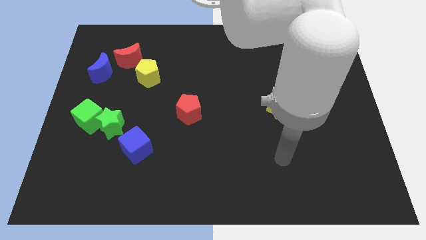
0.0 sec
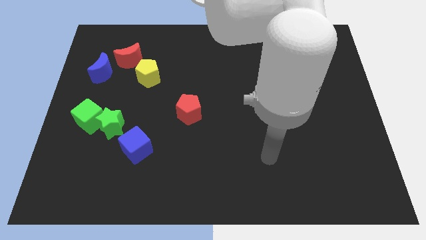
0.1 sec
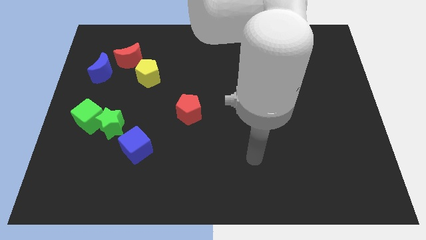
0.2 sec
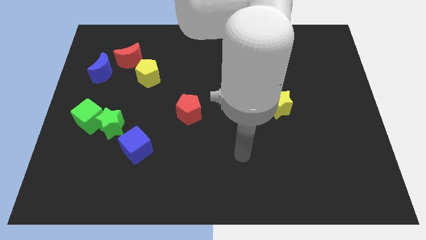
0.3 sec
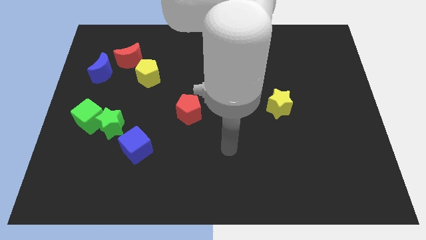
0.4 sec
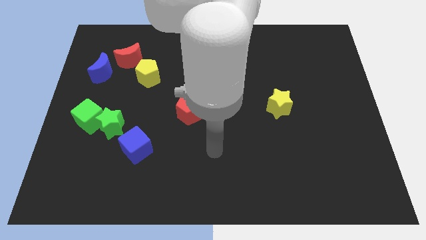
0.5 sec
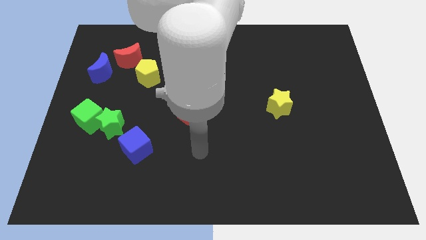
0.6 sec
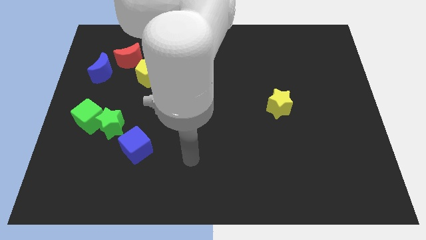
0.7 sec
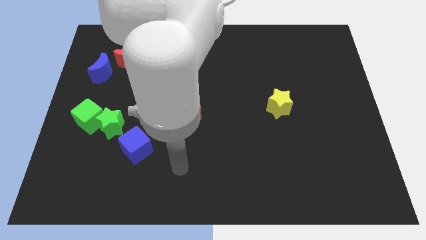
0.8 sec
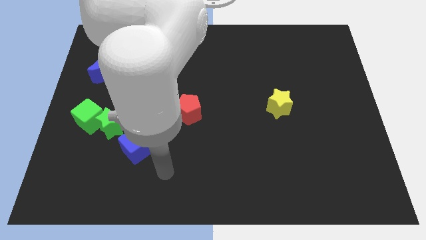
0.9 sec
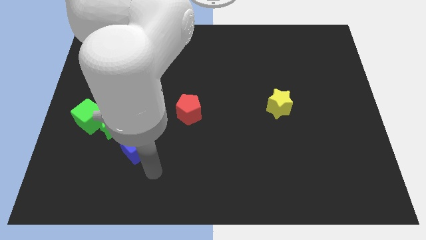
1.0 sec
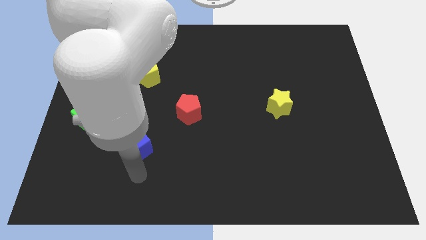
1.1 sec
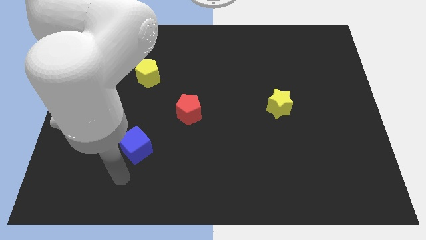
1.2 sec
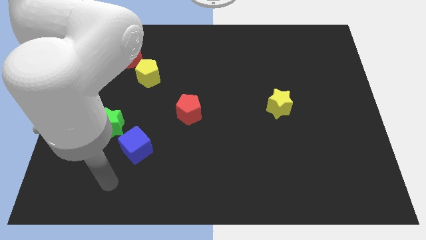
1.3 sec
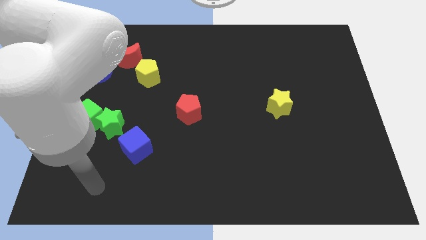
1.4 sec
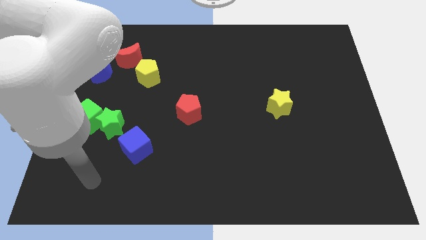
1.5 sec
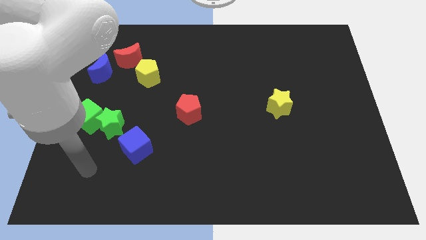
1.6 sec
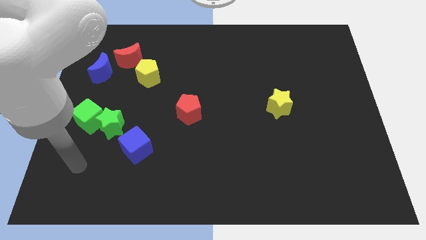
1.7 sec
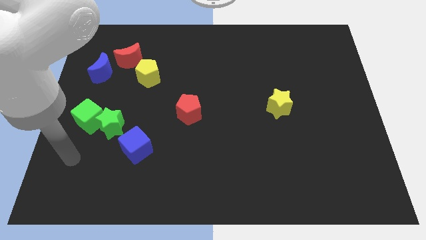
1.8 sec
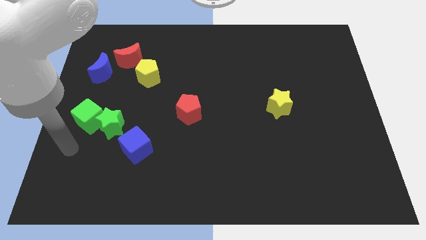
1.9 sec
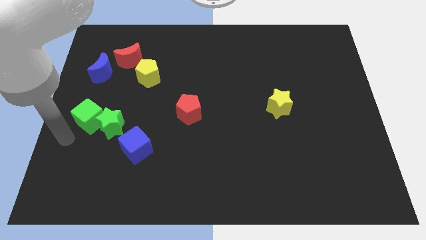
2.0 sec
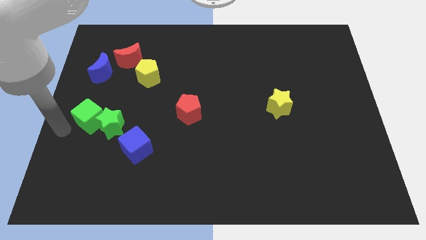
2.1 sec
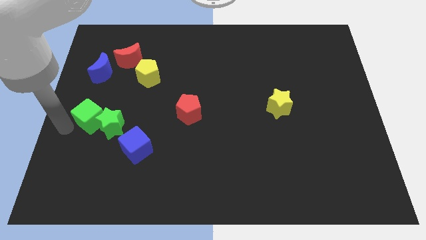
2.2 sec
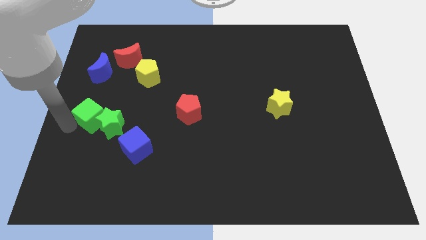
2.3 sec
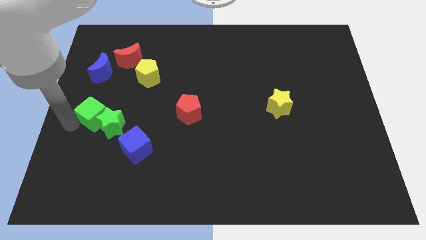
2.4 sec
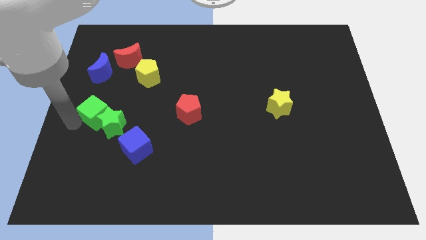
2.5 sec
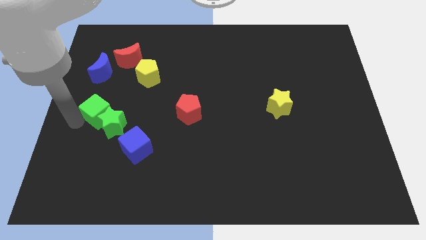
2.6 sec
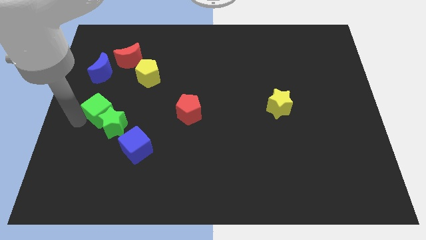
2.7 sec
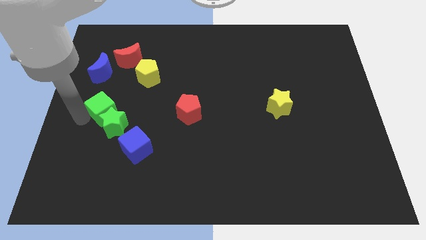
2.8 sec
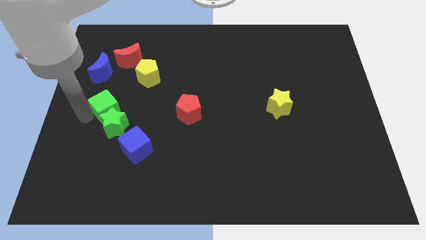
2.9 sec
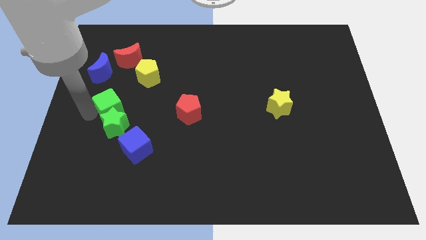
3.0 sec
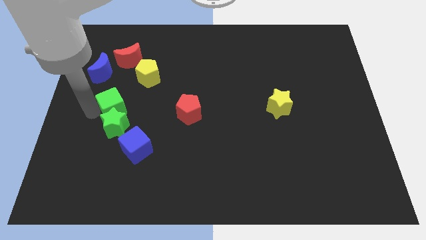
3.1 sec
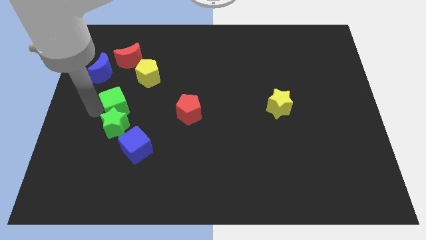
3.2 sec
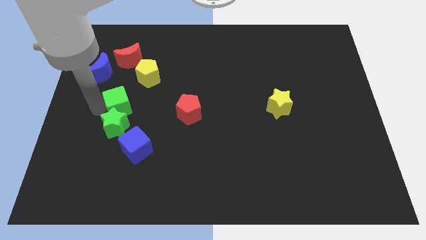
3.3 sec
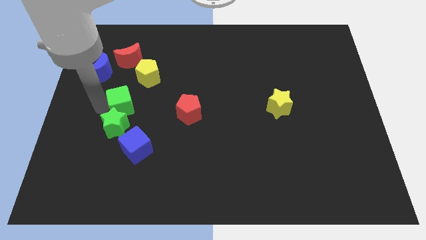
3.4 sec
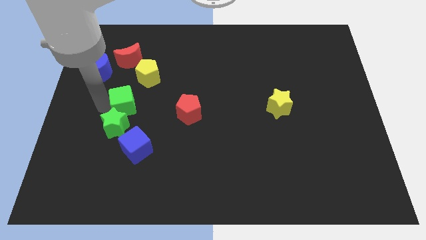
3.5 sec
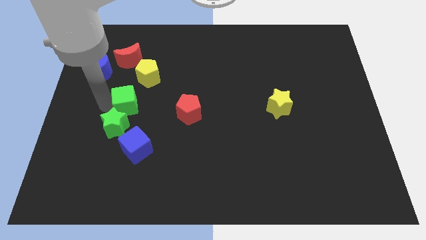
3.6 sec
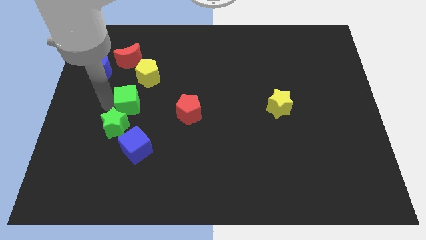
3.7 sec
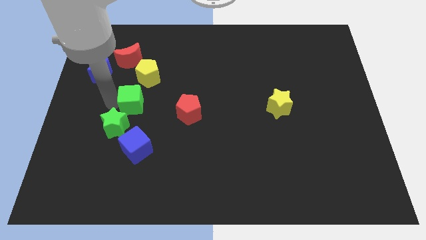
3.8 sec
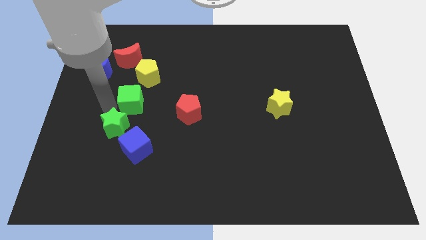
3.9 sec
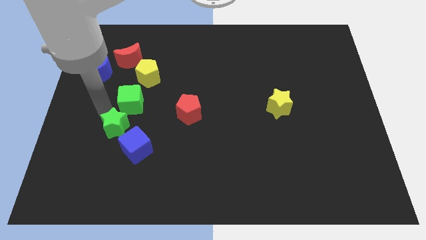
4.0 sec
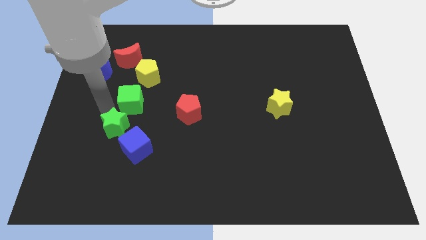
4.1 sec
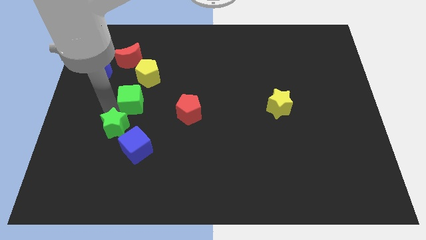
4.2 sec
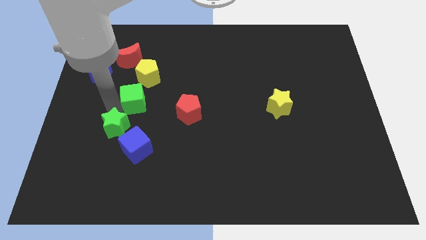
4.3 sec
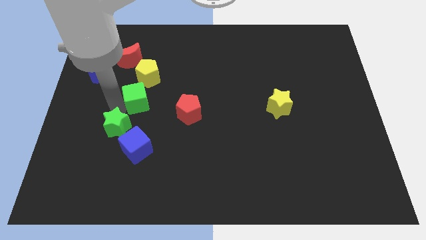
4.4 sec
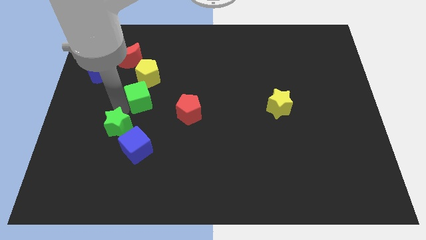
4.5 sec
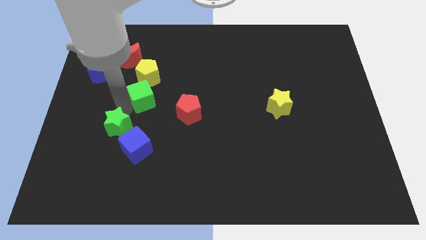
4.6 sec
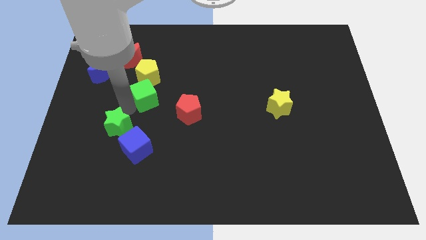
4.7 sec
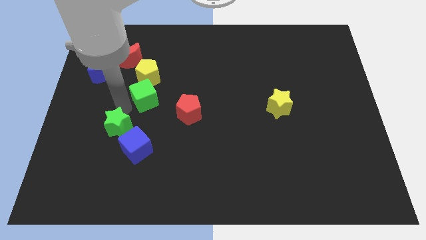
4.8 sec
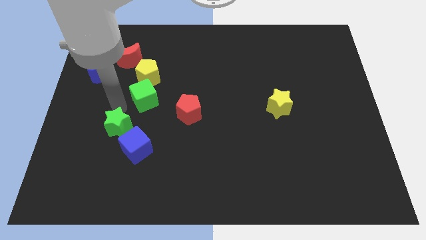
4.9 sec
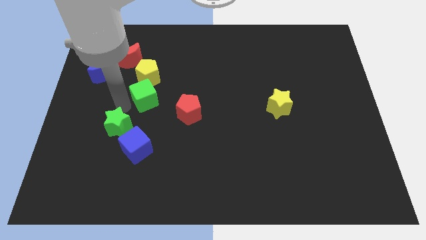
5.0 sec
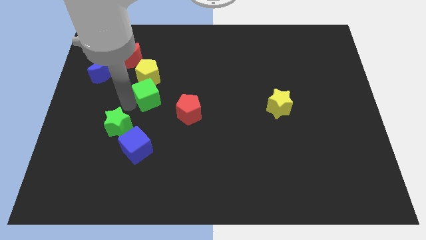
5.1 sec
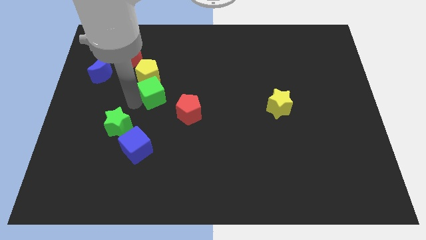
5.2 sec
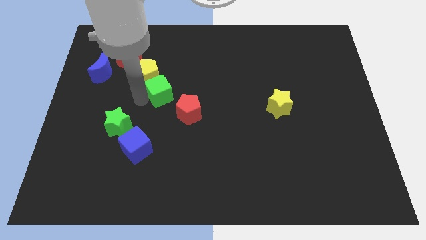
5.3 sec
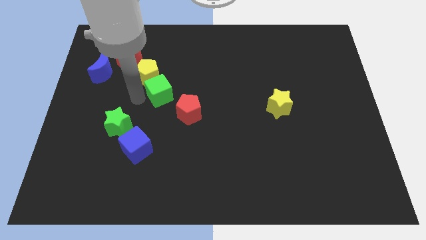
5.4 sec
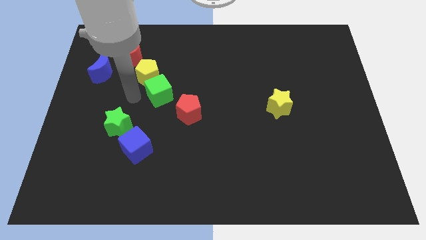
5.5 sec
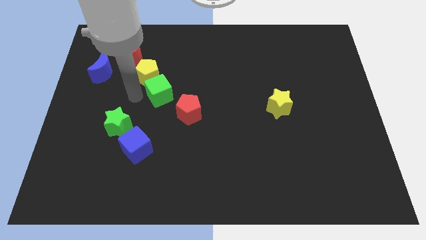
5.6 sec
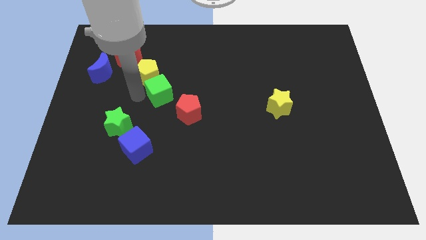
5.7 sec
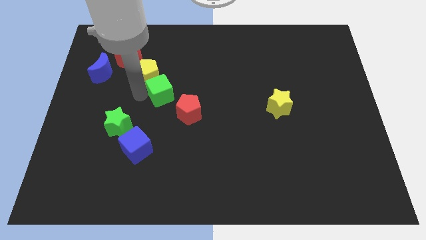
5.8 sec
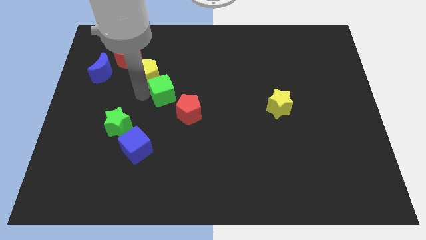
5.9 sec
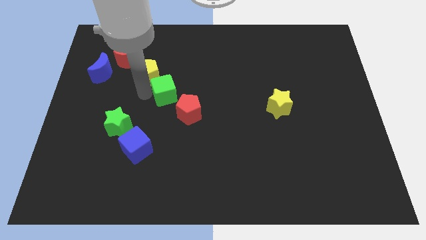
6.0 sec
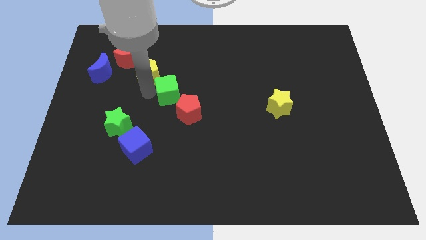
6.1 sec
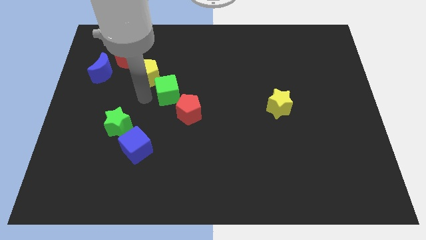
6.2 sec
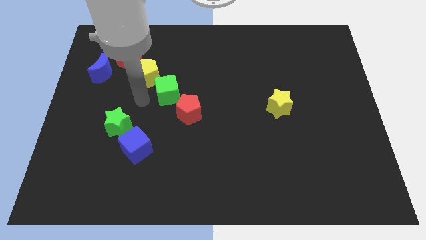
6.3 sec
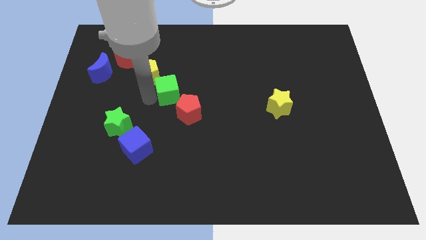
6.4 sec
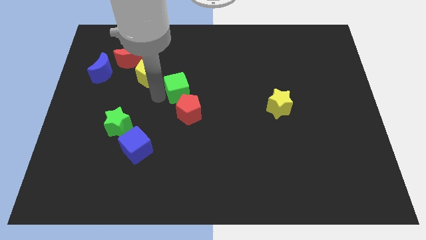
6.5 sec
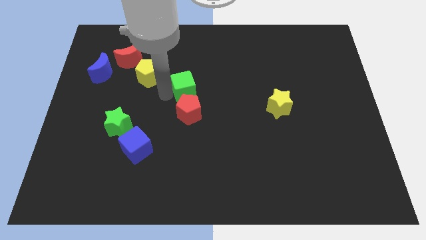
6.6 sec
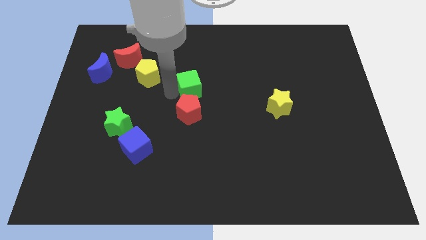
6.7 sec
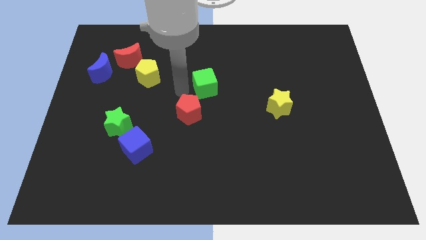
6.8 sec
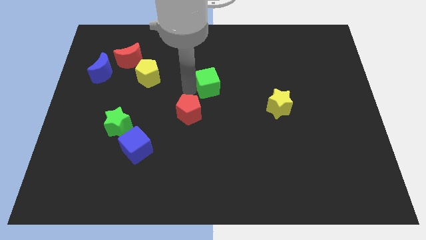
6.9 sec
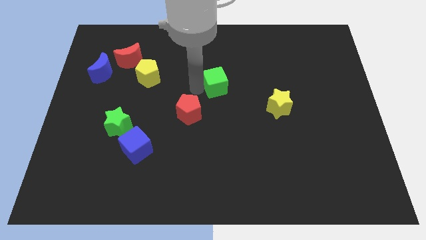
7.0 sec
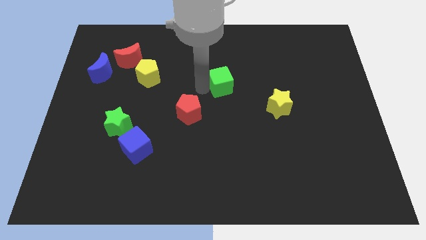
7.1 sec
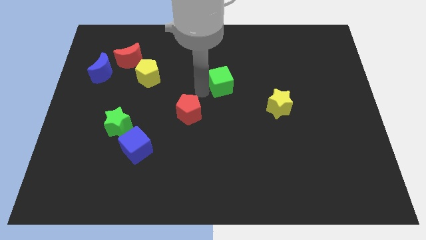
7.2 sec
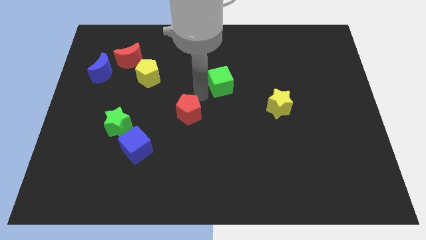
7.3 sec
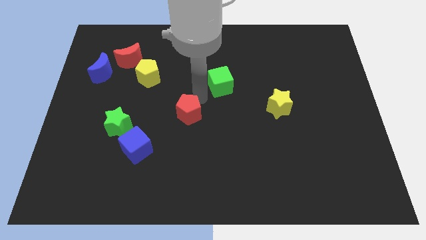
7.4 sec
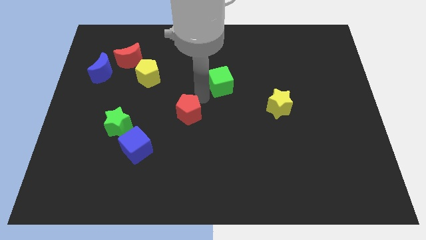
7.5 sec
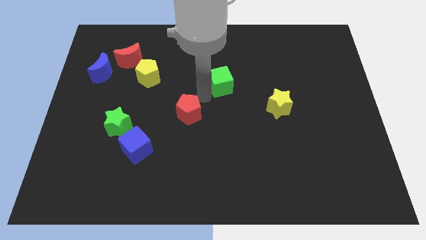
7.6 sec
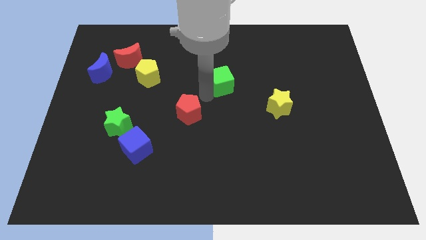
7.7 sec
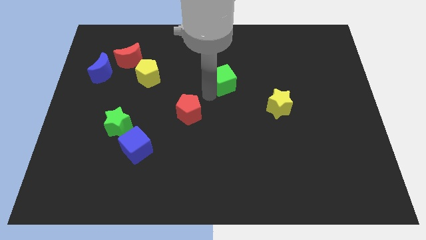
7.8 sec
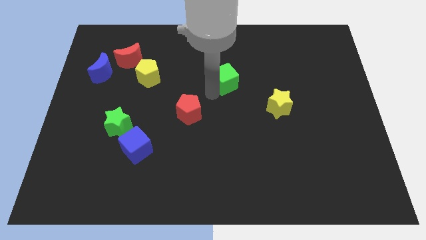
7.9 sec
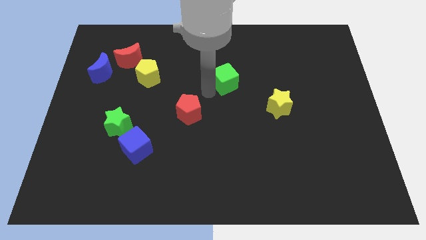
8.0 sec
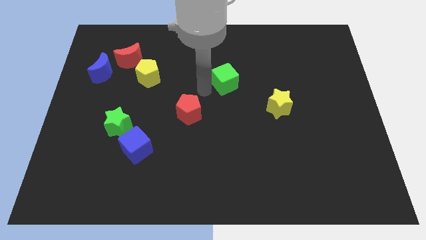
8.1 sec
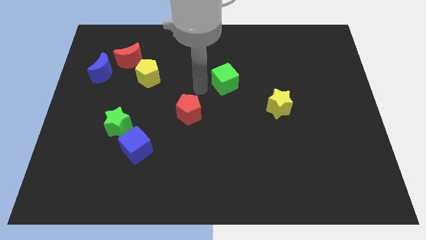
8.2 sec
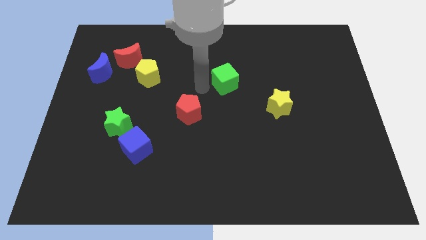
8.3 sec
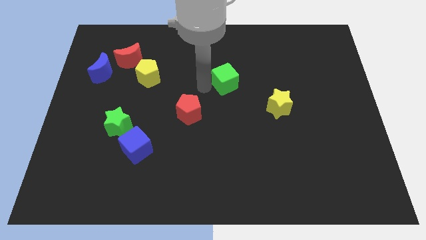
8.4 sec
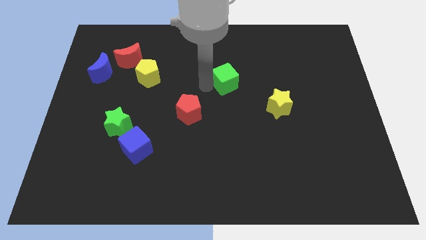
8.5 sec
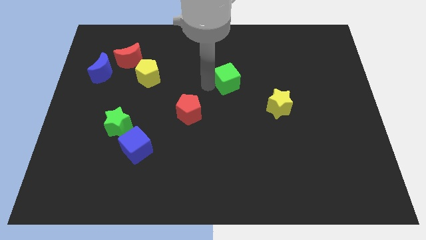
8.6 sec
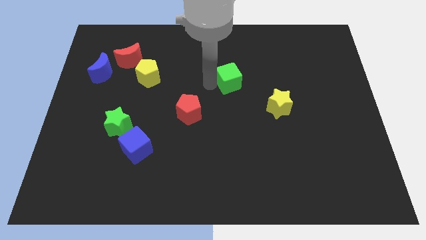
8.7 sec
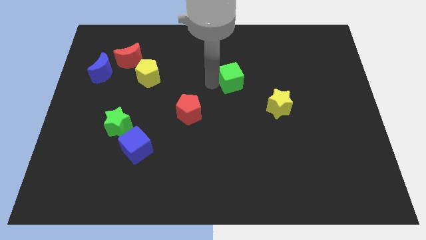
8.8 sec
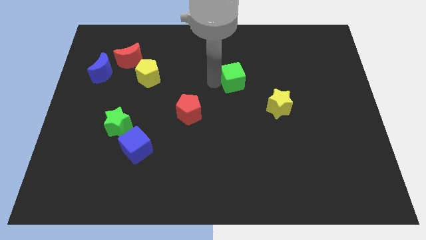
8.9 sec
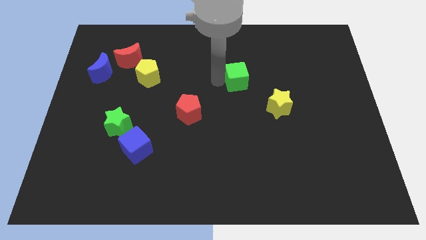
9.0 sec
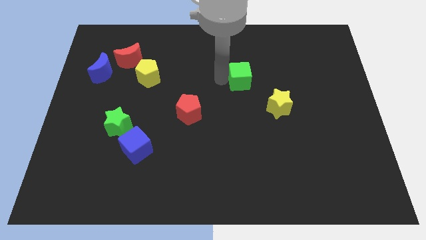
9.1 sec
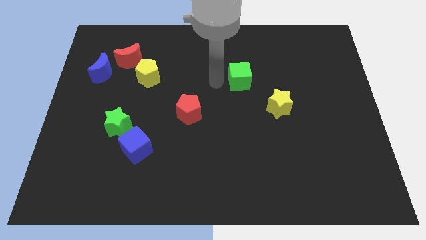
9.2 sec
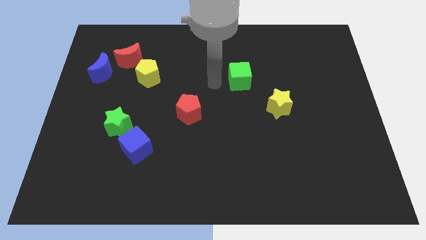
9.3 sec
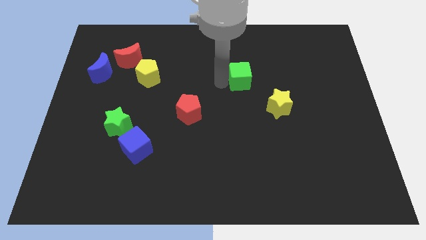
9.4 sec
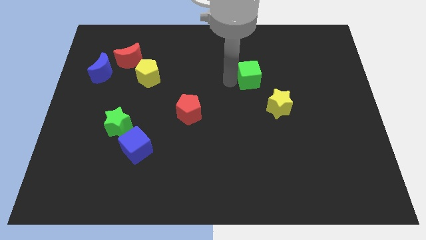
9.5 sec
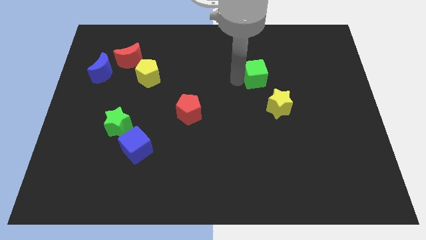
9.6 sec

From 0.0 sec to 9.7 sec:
move the green cube to the top of the yellow star
